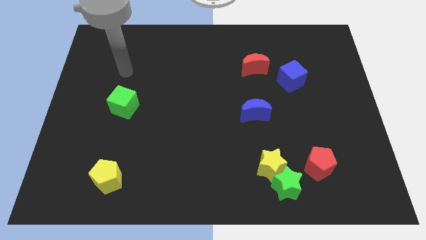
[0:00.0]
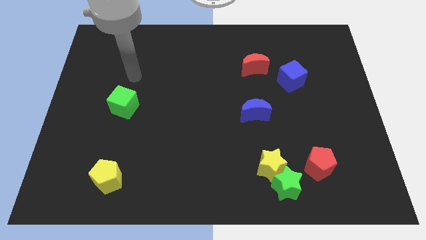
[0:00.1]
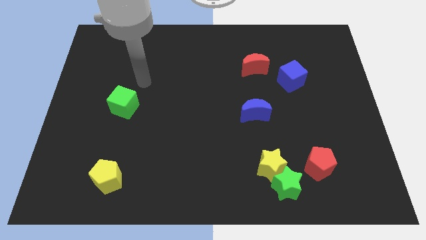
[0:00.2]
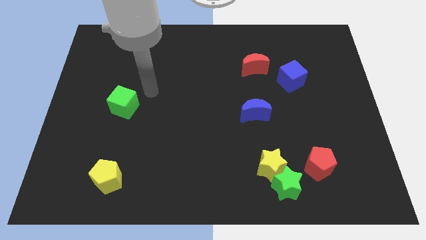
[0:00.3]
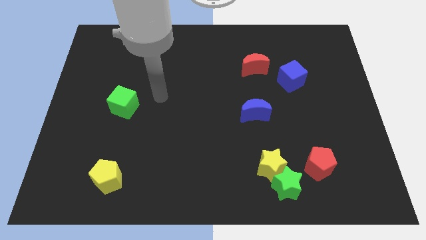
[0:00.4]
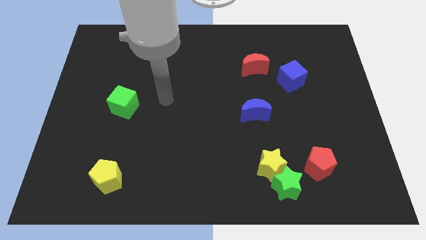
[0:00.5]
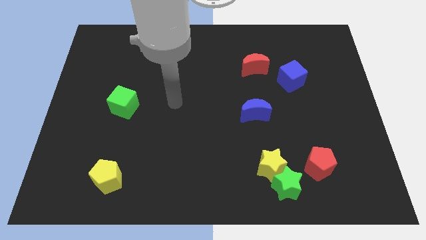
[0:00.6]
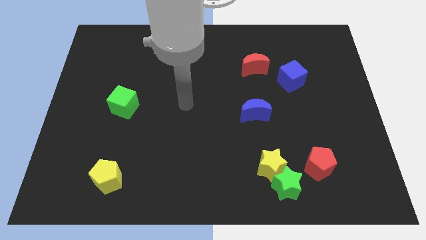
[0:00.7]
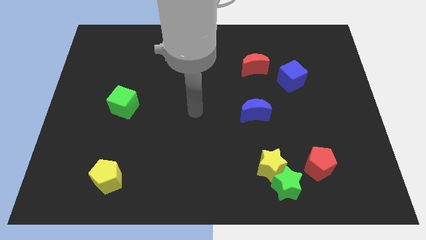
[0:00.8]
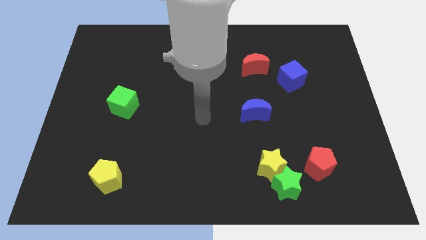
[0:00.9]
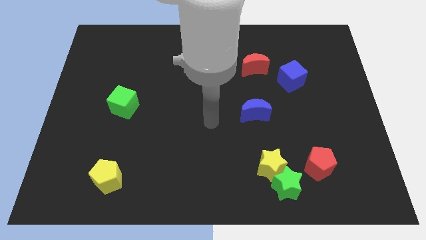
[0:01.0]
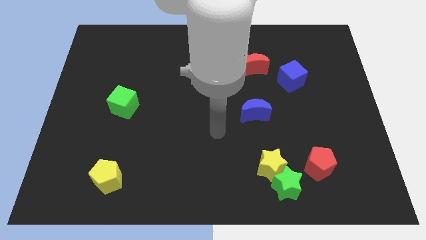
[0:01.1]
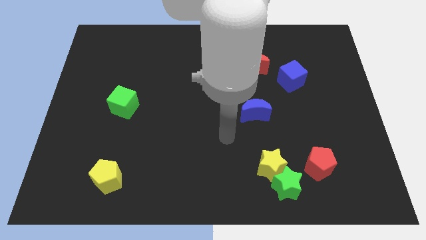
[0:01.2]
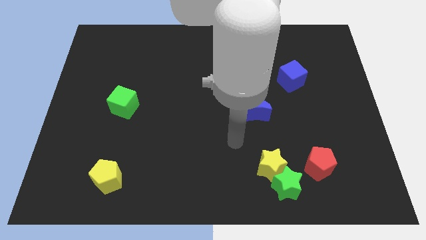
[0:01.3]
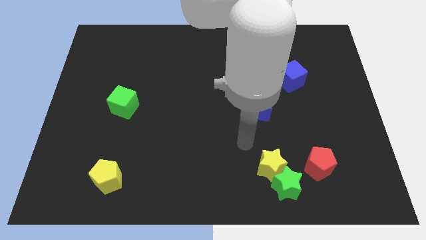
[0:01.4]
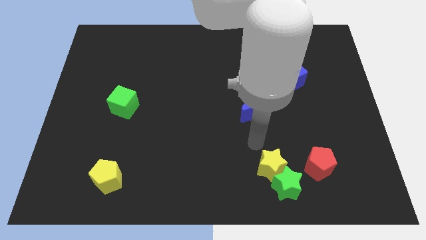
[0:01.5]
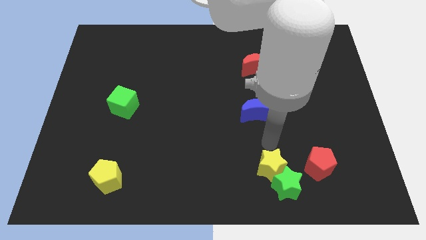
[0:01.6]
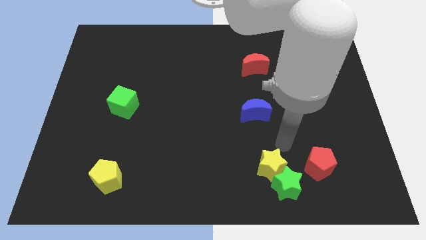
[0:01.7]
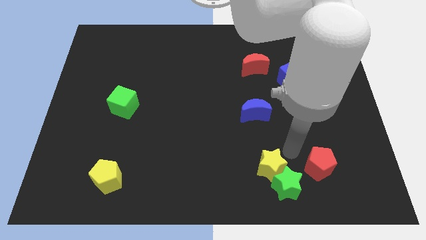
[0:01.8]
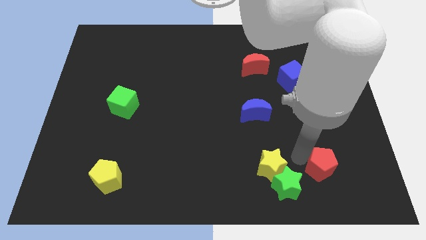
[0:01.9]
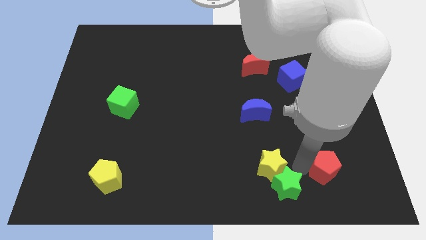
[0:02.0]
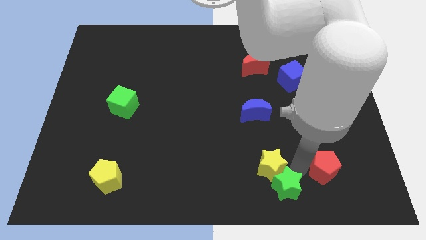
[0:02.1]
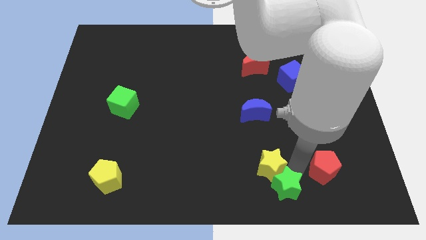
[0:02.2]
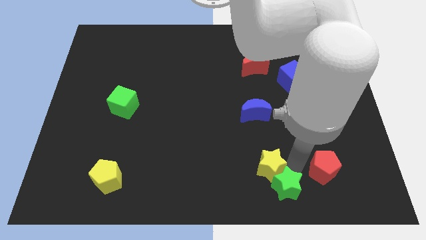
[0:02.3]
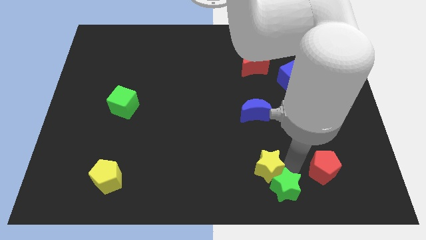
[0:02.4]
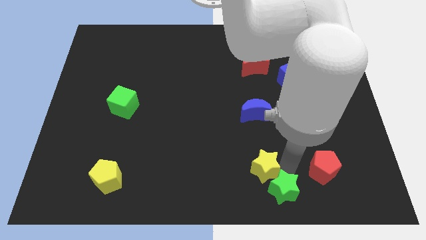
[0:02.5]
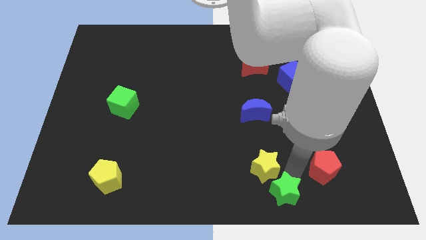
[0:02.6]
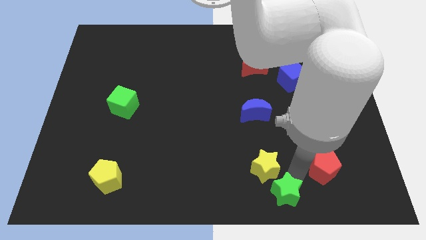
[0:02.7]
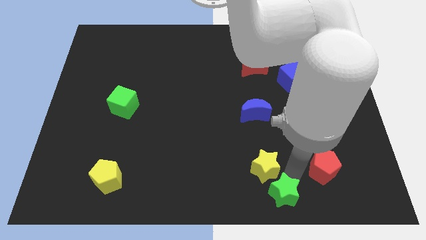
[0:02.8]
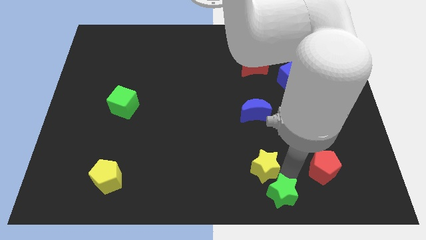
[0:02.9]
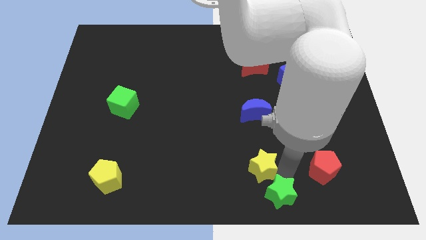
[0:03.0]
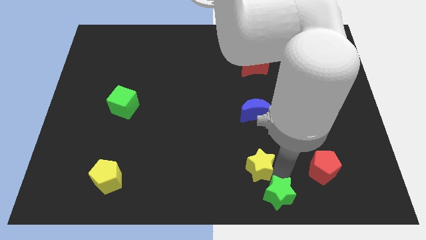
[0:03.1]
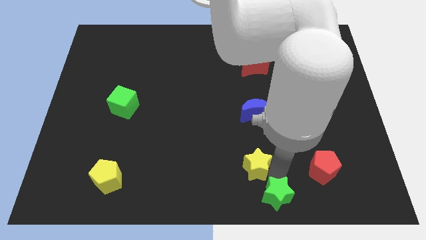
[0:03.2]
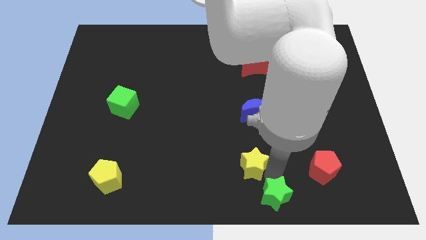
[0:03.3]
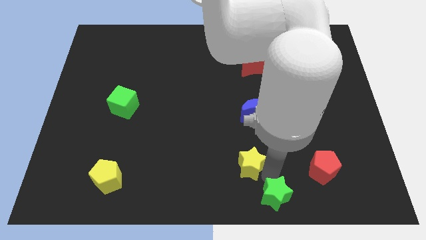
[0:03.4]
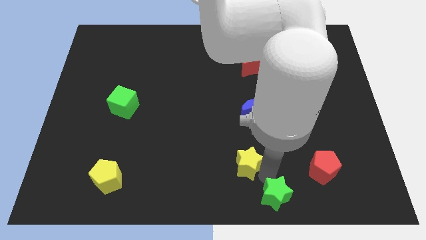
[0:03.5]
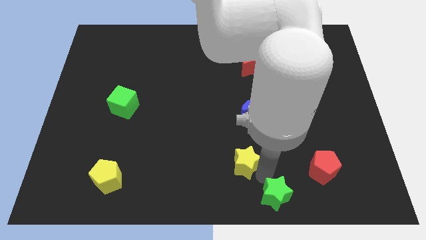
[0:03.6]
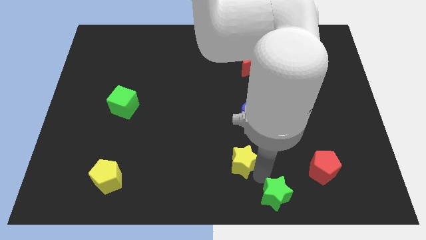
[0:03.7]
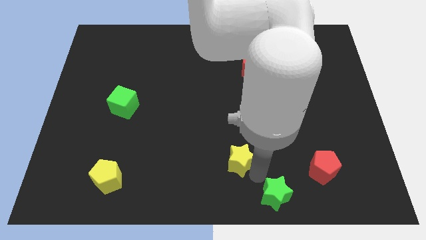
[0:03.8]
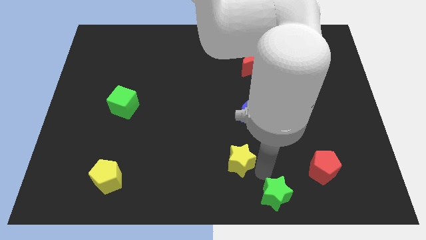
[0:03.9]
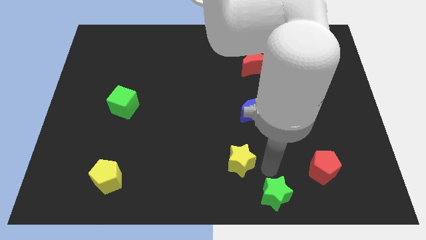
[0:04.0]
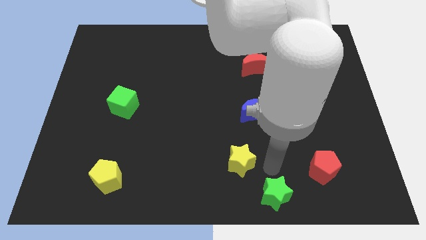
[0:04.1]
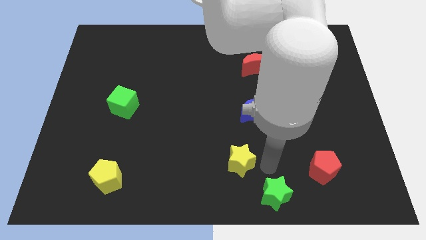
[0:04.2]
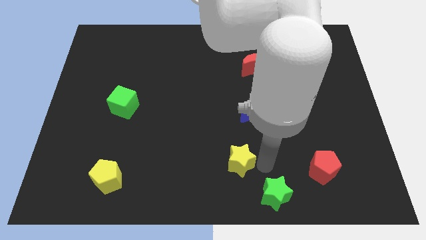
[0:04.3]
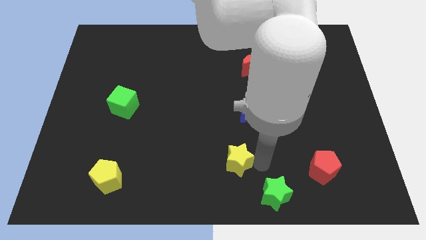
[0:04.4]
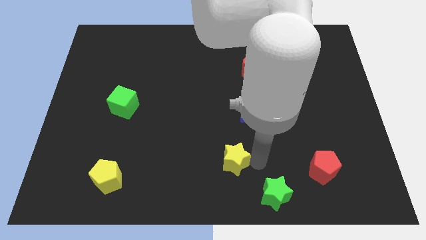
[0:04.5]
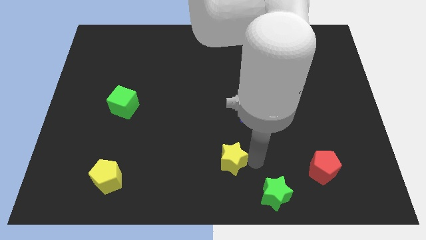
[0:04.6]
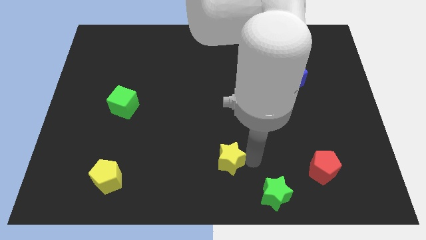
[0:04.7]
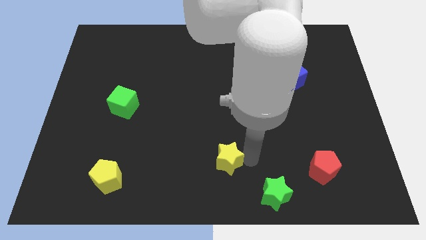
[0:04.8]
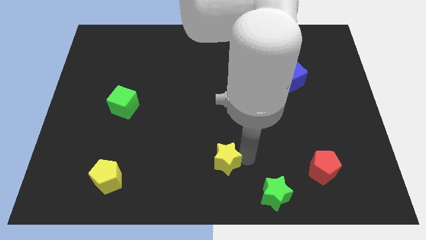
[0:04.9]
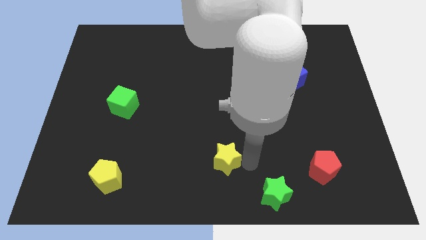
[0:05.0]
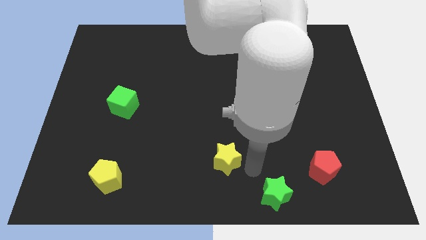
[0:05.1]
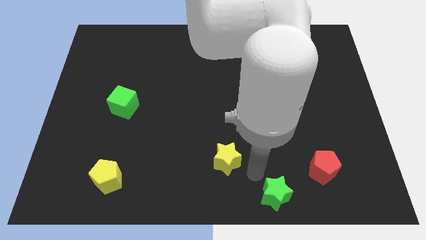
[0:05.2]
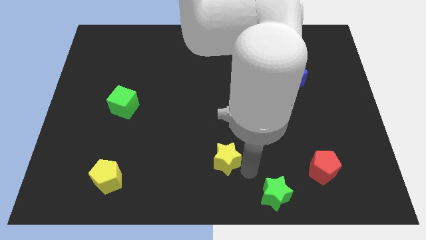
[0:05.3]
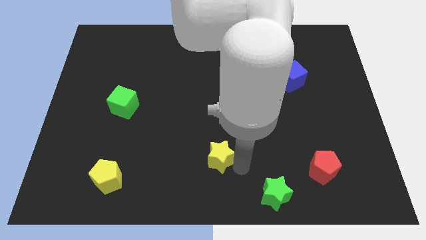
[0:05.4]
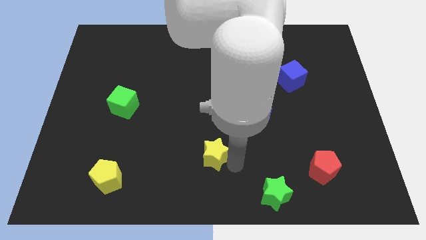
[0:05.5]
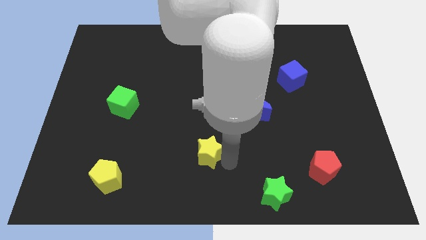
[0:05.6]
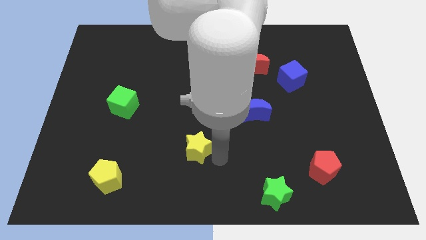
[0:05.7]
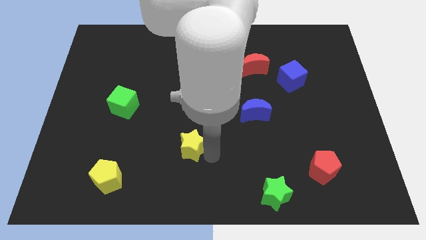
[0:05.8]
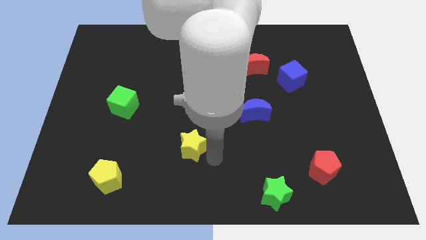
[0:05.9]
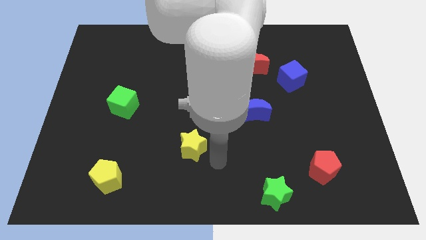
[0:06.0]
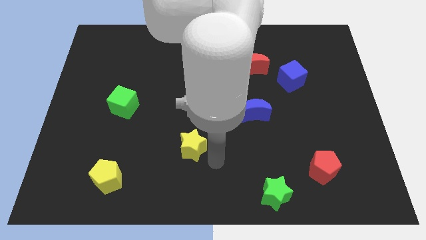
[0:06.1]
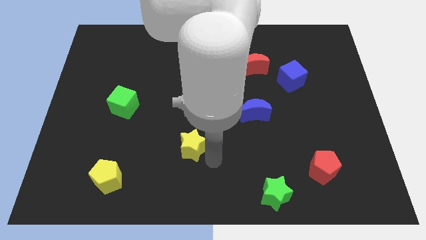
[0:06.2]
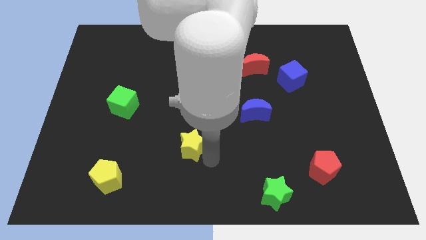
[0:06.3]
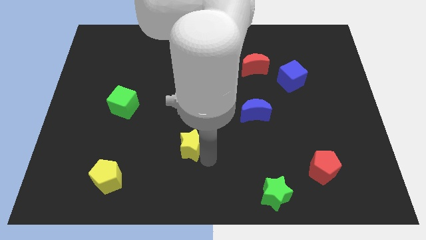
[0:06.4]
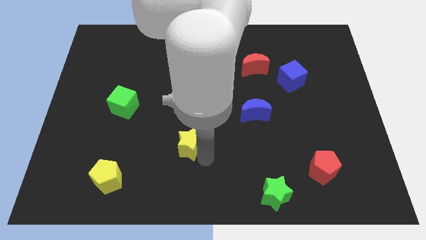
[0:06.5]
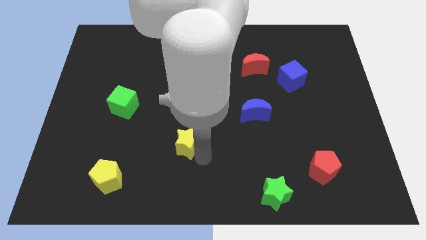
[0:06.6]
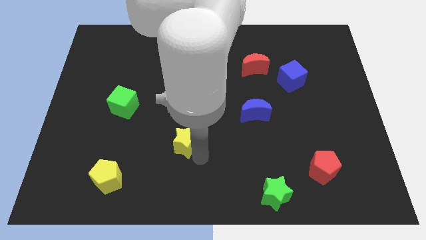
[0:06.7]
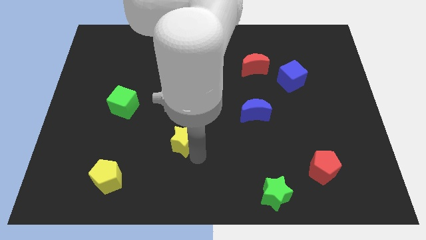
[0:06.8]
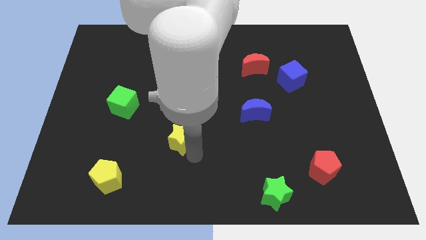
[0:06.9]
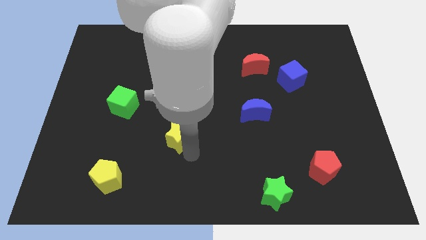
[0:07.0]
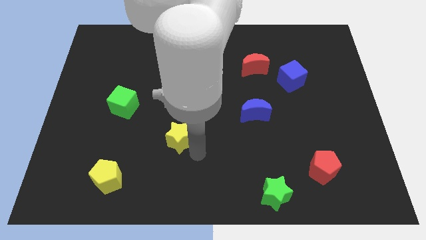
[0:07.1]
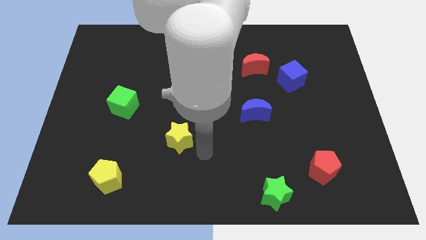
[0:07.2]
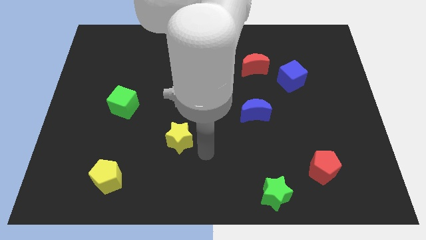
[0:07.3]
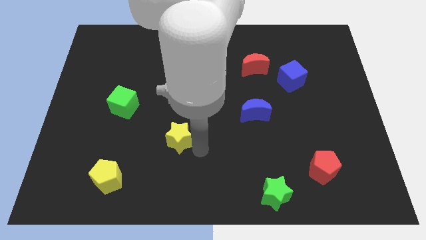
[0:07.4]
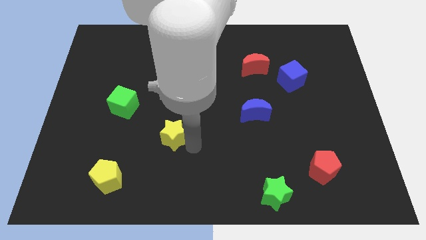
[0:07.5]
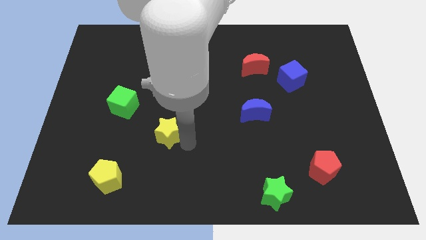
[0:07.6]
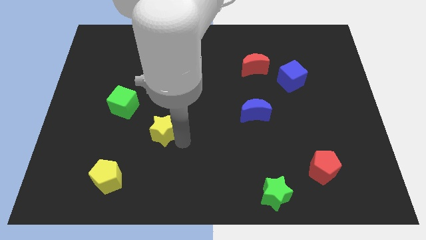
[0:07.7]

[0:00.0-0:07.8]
slide the yellow star diagonally down and to the right of the green cube
